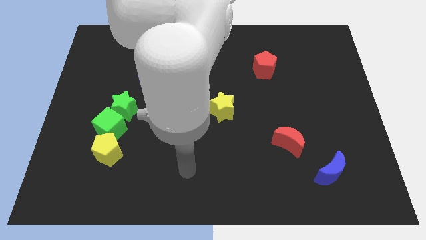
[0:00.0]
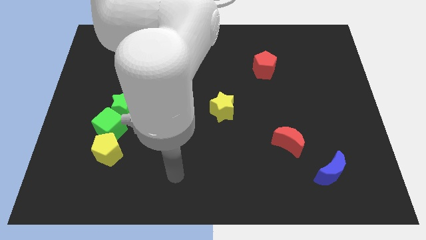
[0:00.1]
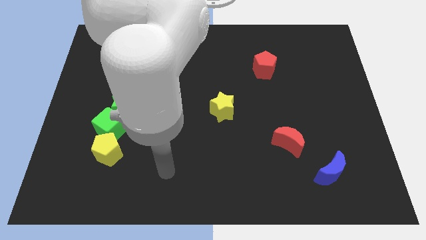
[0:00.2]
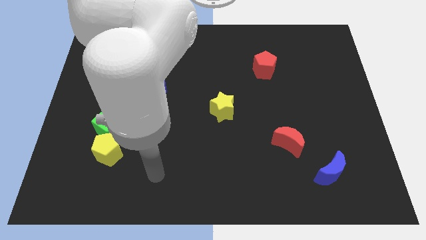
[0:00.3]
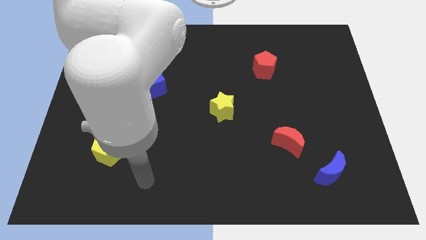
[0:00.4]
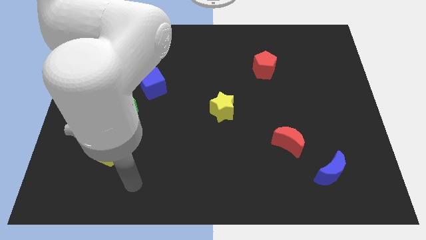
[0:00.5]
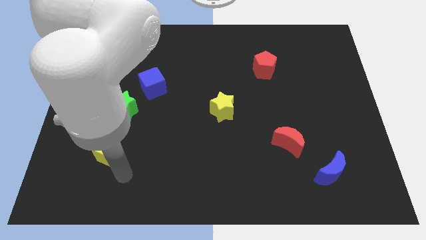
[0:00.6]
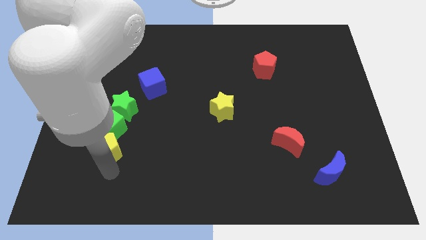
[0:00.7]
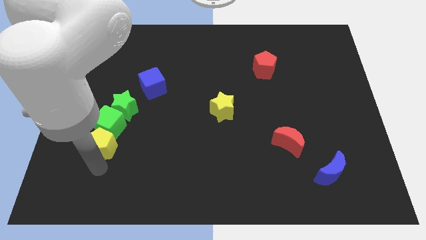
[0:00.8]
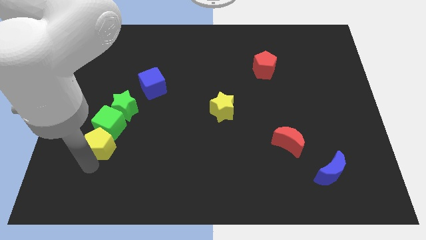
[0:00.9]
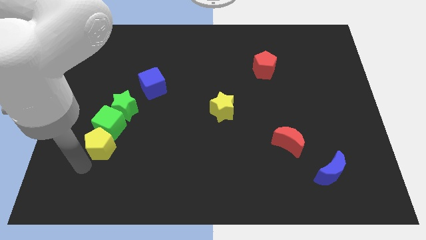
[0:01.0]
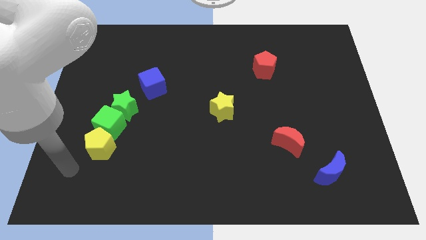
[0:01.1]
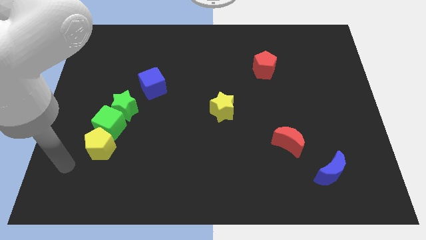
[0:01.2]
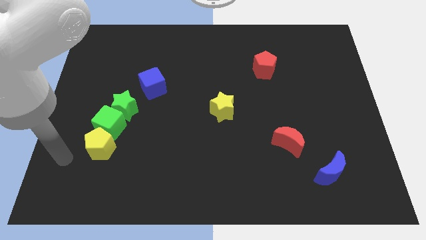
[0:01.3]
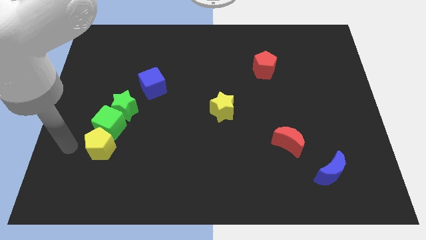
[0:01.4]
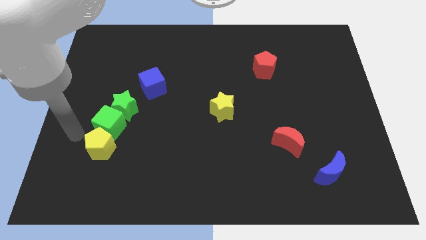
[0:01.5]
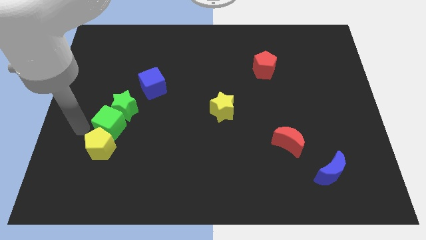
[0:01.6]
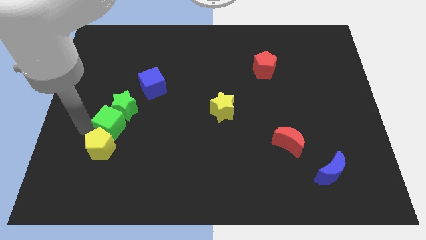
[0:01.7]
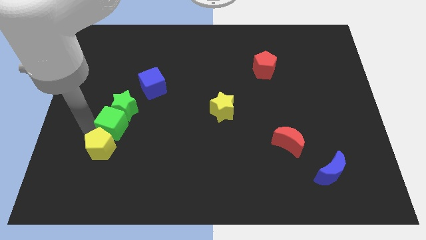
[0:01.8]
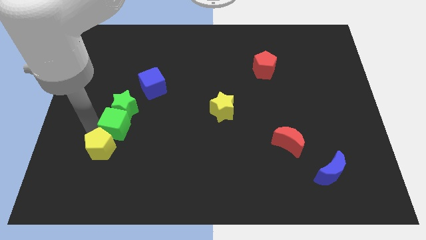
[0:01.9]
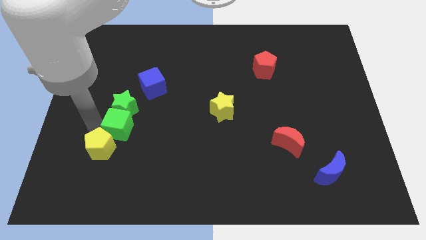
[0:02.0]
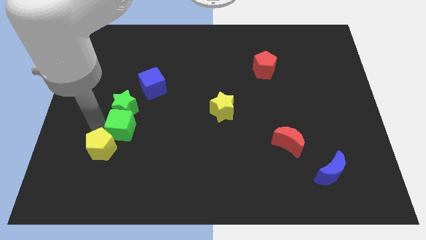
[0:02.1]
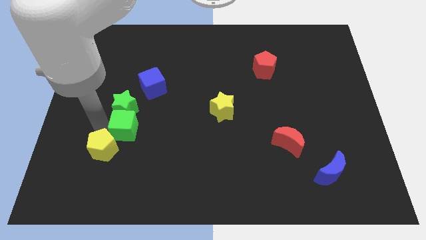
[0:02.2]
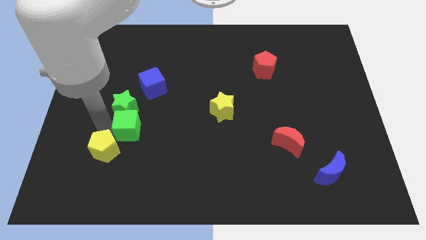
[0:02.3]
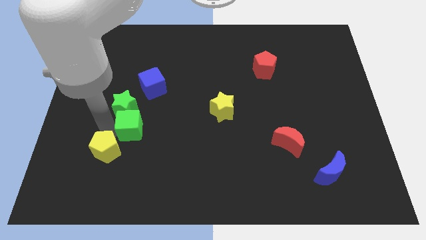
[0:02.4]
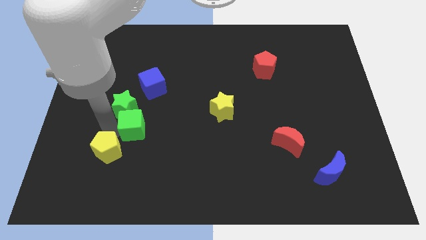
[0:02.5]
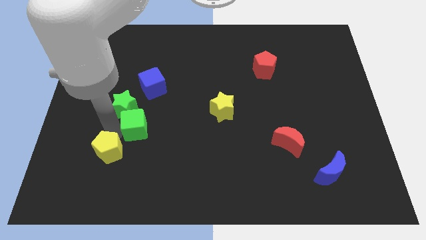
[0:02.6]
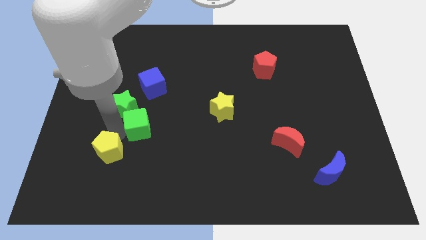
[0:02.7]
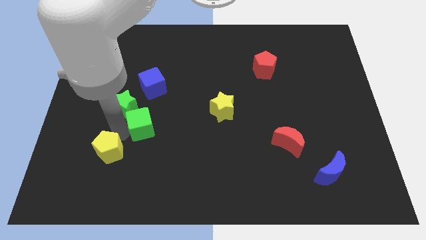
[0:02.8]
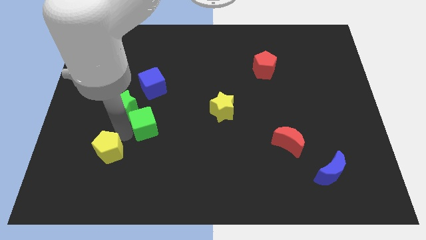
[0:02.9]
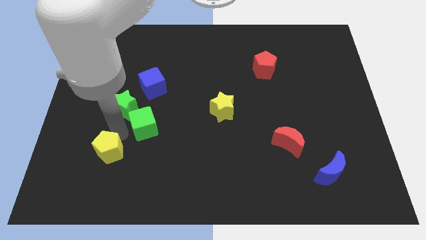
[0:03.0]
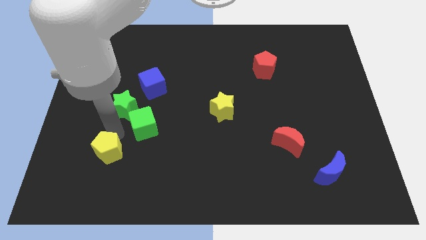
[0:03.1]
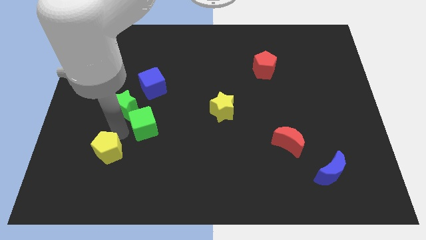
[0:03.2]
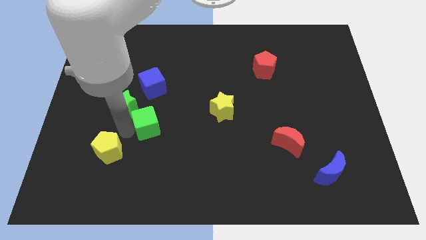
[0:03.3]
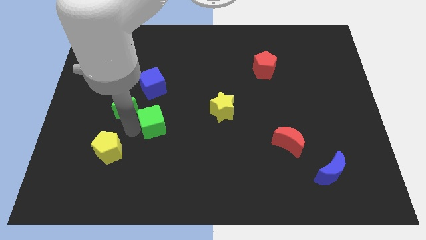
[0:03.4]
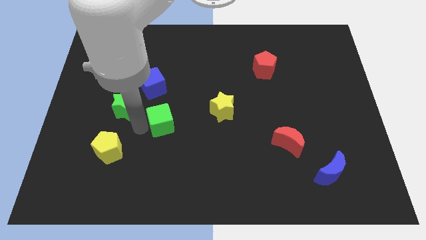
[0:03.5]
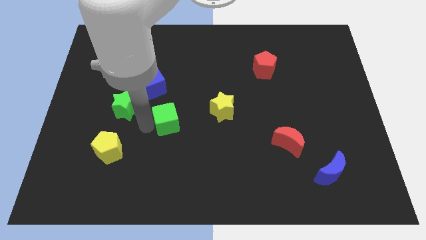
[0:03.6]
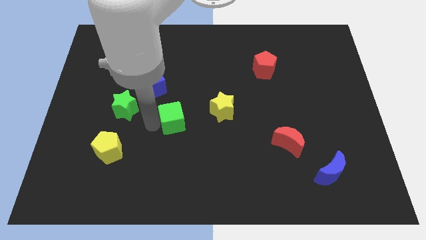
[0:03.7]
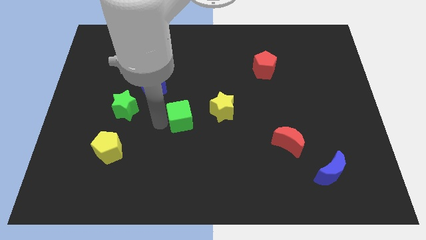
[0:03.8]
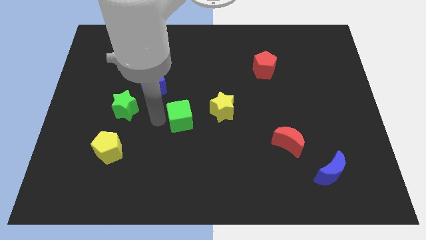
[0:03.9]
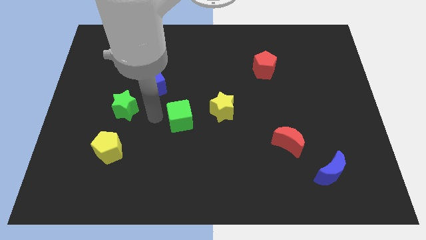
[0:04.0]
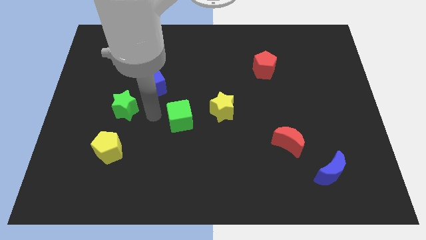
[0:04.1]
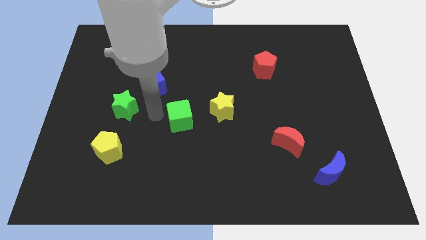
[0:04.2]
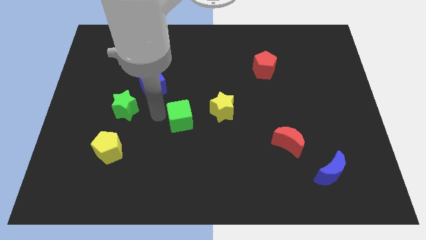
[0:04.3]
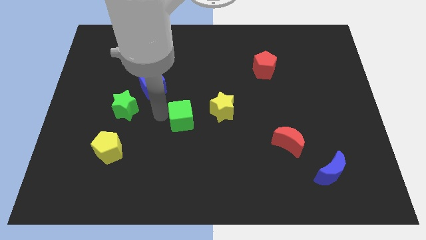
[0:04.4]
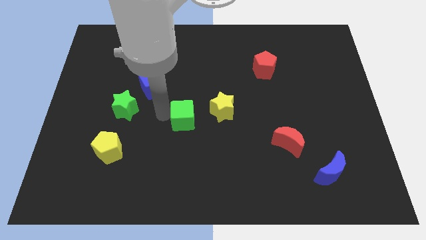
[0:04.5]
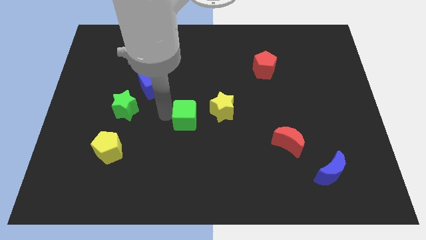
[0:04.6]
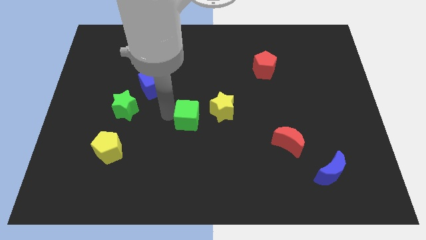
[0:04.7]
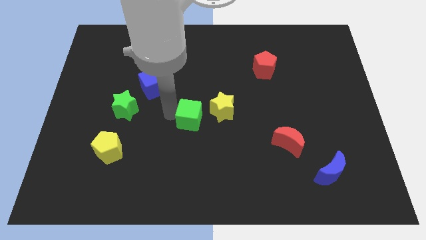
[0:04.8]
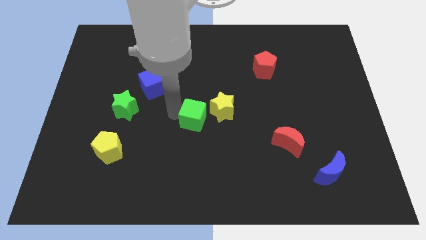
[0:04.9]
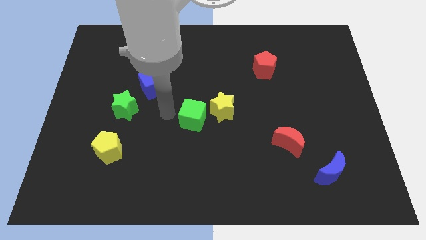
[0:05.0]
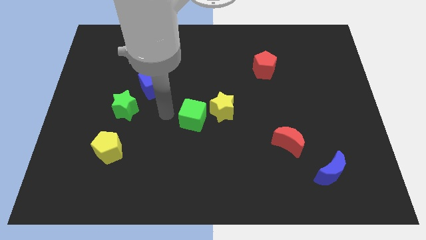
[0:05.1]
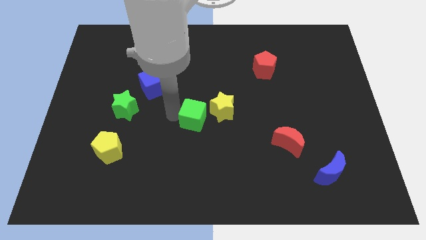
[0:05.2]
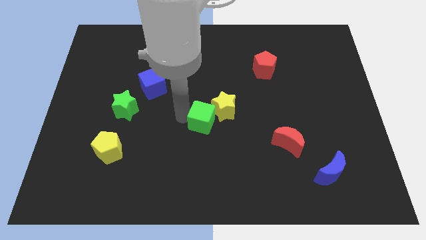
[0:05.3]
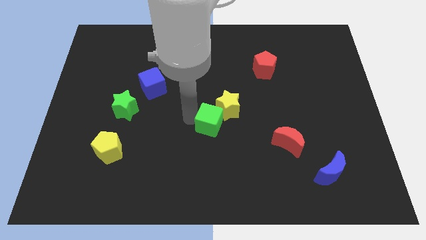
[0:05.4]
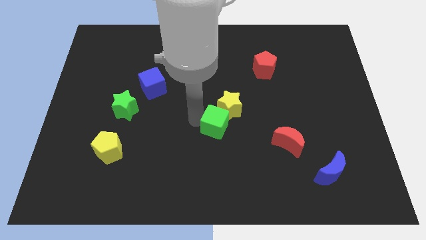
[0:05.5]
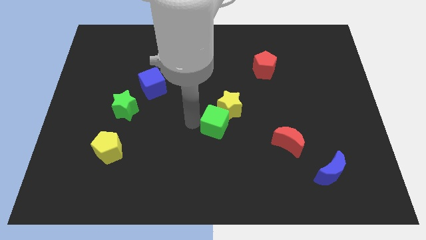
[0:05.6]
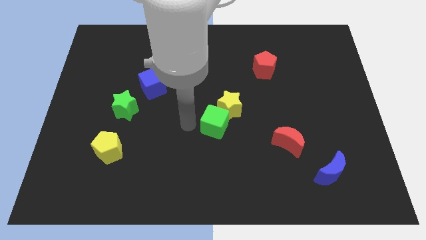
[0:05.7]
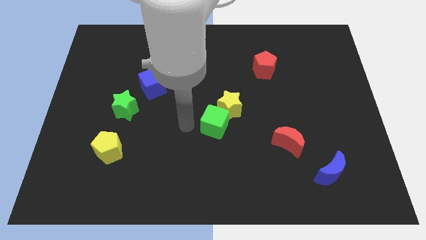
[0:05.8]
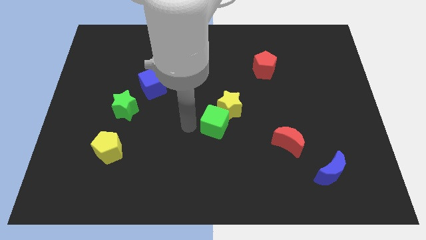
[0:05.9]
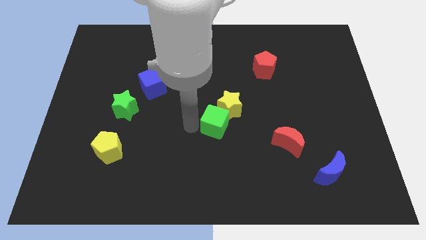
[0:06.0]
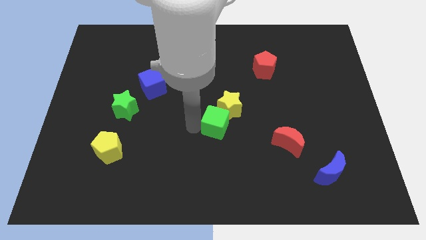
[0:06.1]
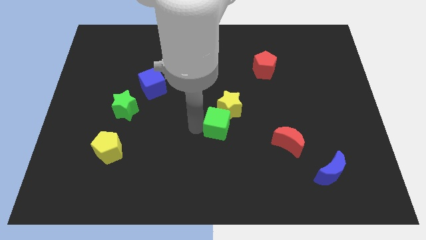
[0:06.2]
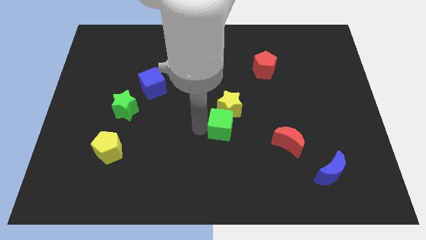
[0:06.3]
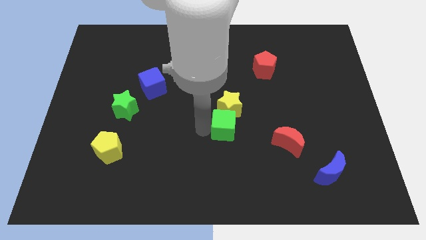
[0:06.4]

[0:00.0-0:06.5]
move the green cube to the bottom right side of the yellow star
